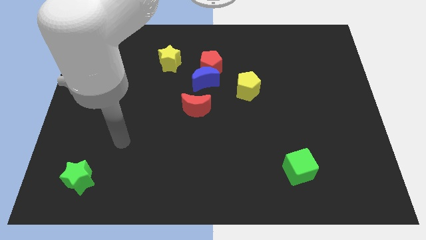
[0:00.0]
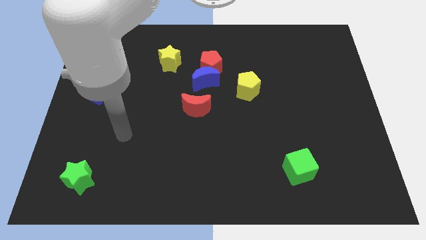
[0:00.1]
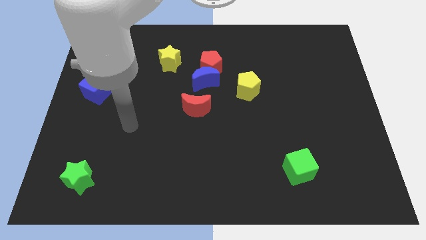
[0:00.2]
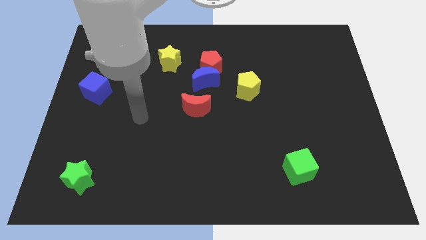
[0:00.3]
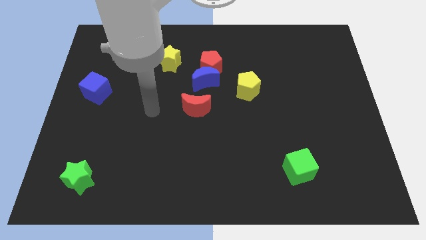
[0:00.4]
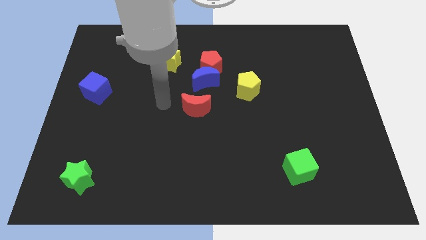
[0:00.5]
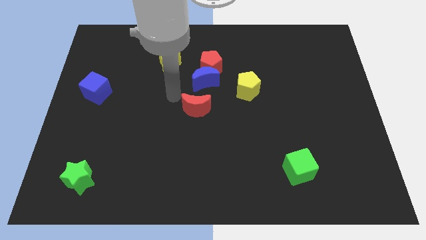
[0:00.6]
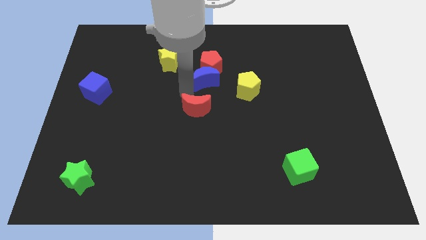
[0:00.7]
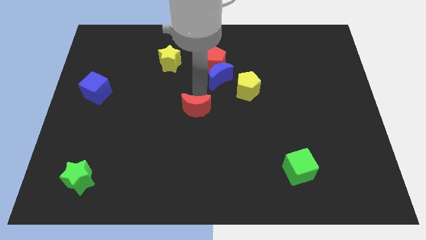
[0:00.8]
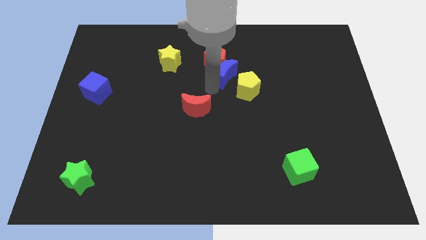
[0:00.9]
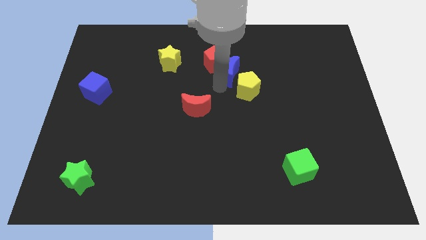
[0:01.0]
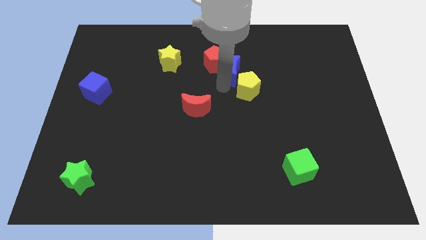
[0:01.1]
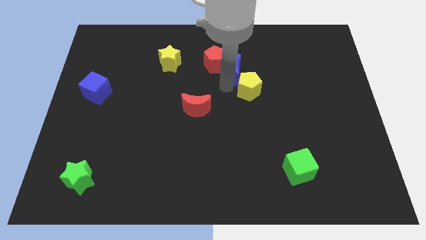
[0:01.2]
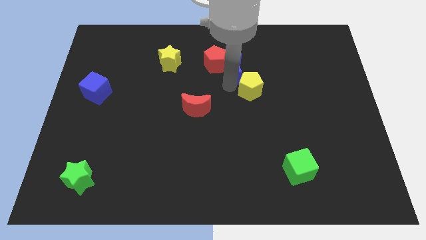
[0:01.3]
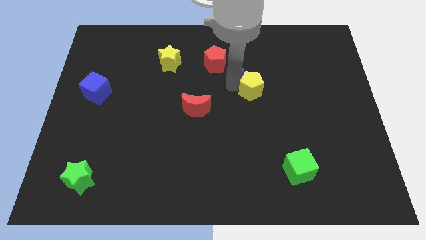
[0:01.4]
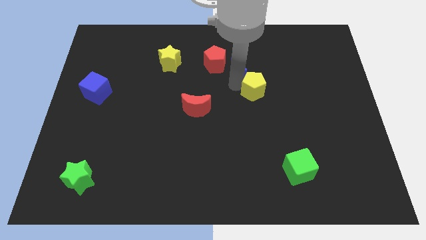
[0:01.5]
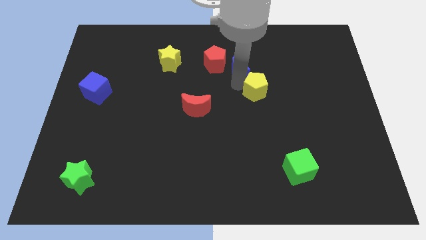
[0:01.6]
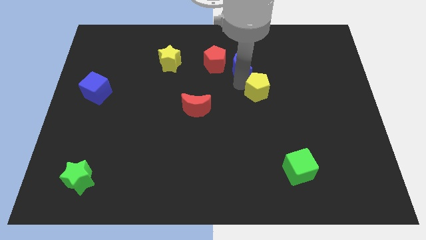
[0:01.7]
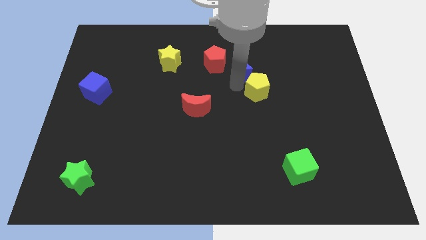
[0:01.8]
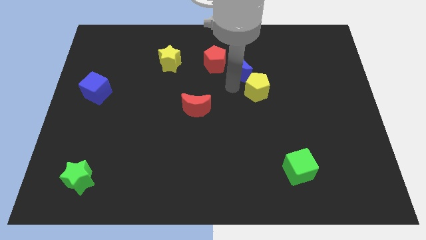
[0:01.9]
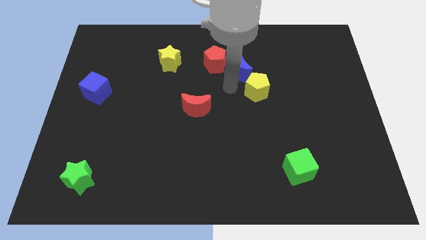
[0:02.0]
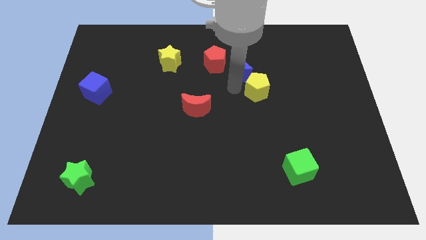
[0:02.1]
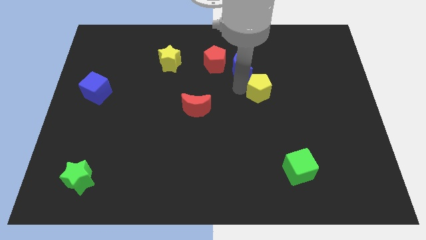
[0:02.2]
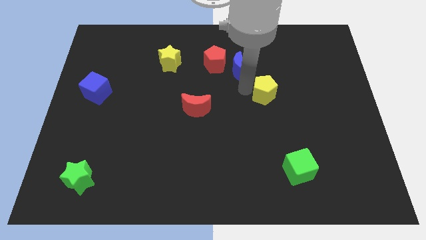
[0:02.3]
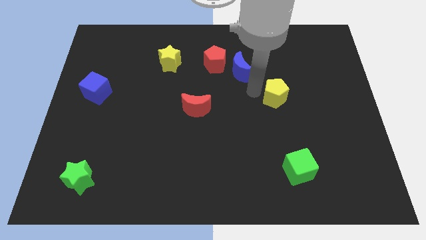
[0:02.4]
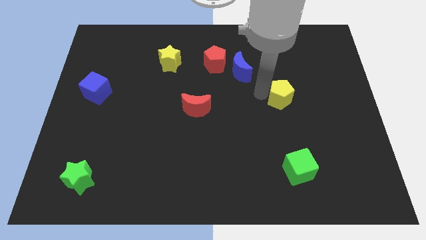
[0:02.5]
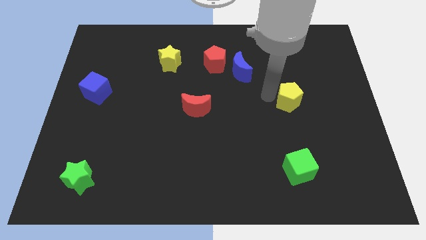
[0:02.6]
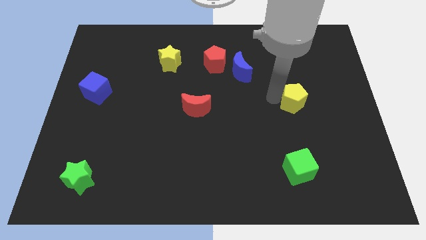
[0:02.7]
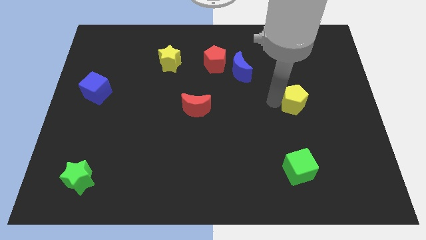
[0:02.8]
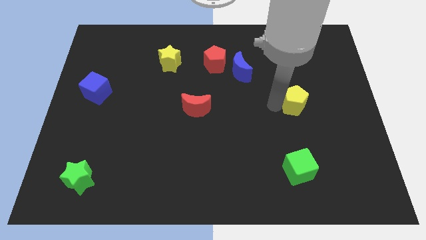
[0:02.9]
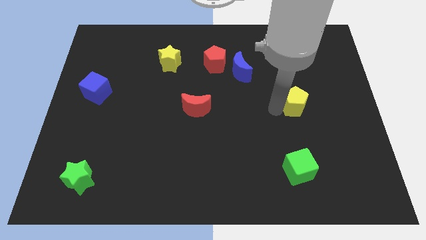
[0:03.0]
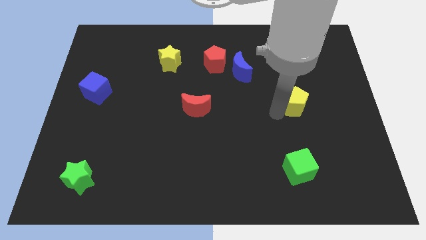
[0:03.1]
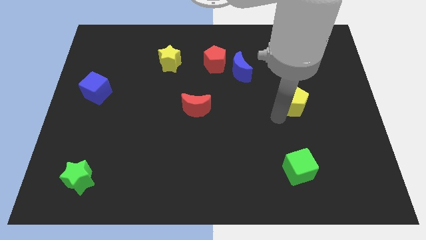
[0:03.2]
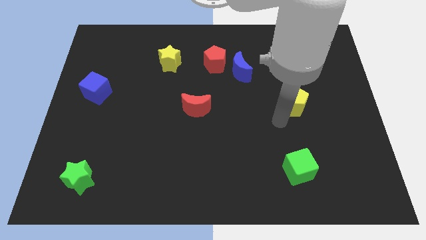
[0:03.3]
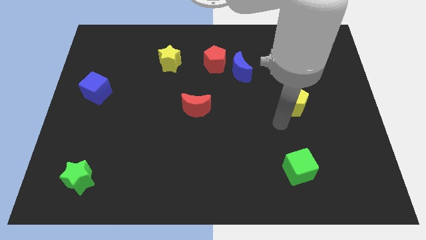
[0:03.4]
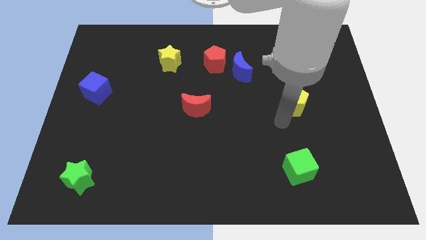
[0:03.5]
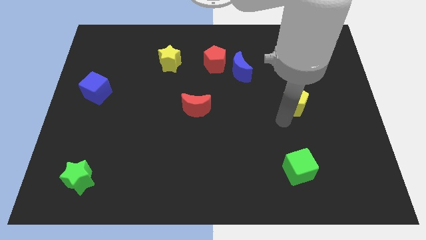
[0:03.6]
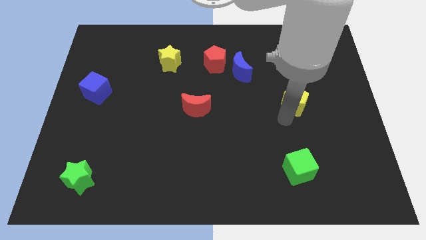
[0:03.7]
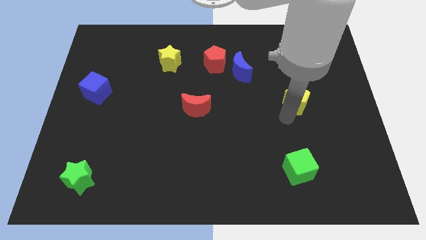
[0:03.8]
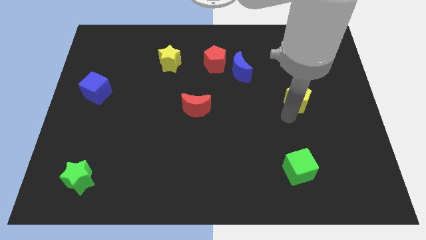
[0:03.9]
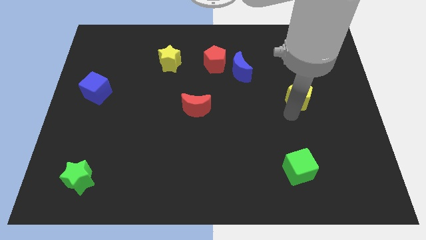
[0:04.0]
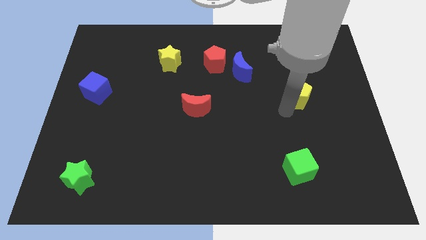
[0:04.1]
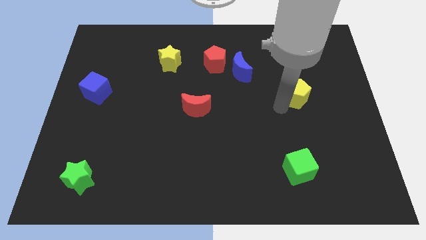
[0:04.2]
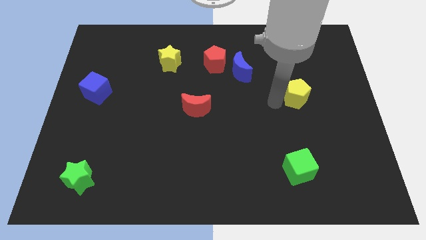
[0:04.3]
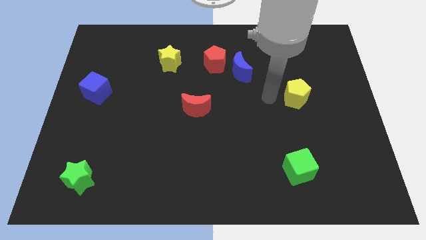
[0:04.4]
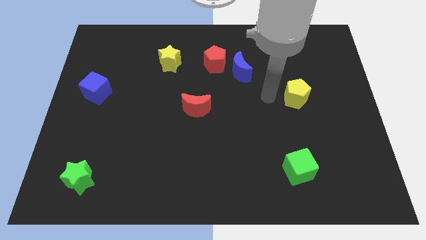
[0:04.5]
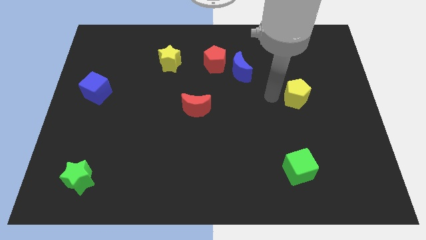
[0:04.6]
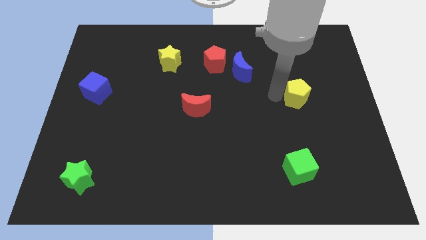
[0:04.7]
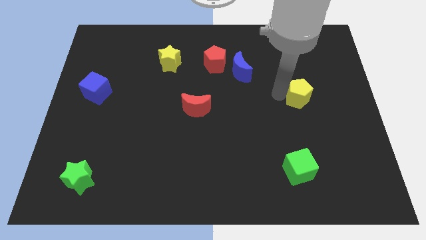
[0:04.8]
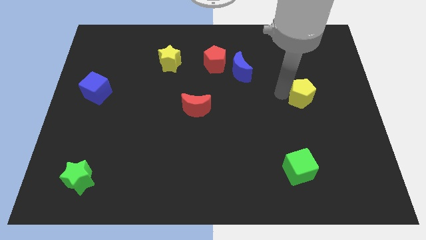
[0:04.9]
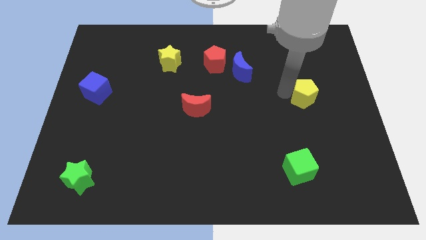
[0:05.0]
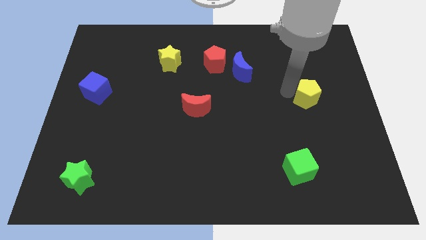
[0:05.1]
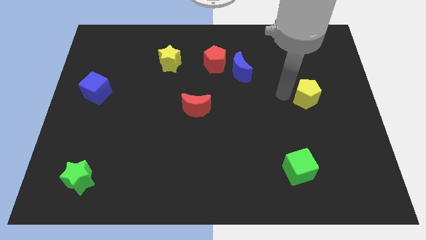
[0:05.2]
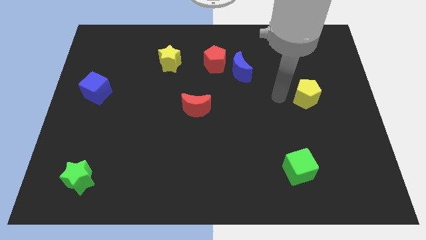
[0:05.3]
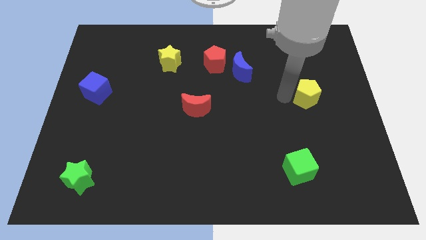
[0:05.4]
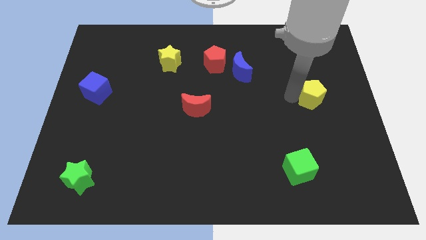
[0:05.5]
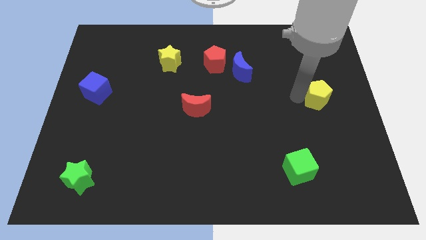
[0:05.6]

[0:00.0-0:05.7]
put the yellow pentagon to the right side of the board

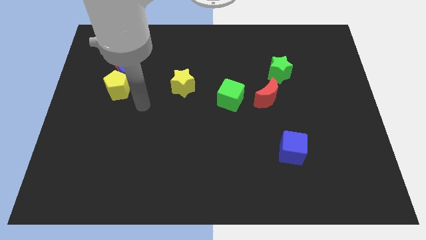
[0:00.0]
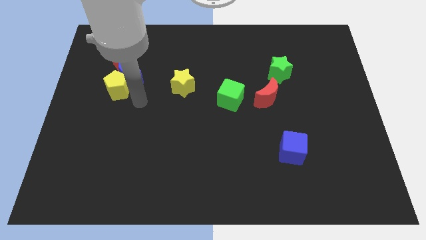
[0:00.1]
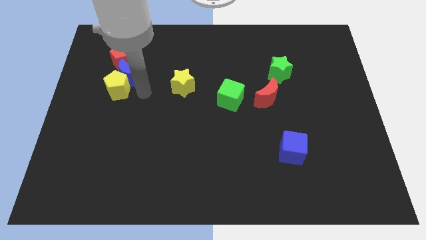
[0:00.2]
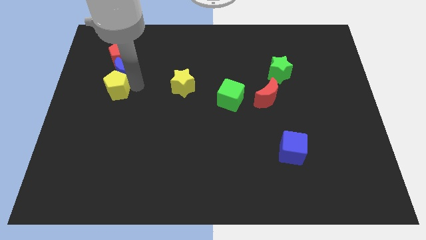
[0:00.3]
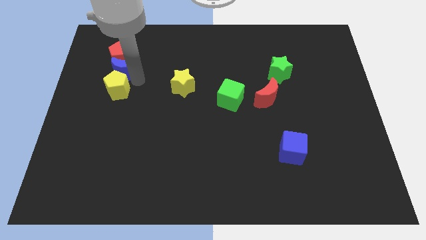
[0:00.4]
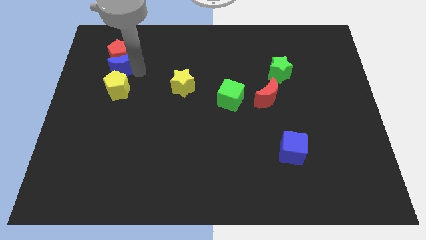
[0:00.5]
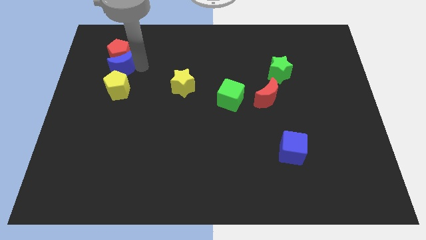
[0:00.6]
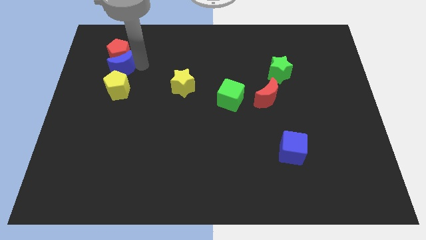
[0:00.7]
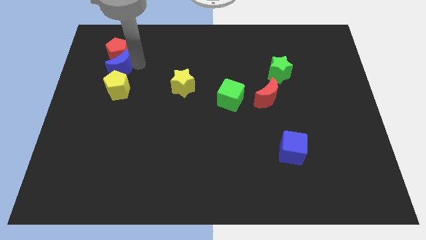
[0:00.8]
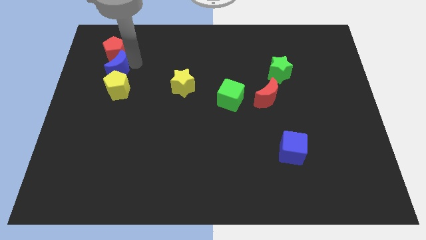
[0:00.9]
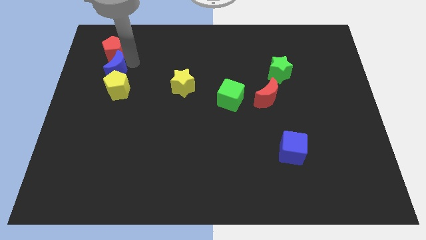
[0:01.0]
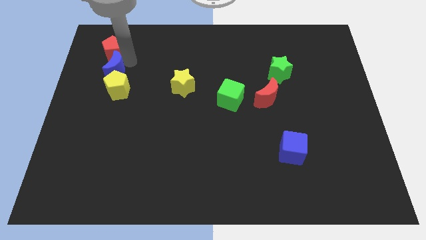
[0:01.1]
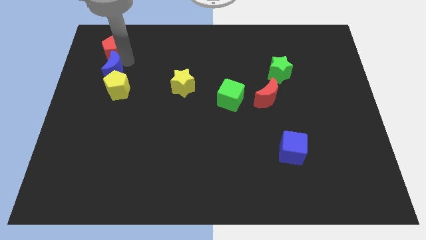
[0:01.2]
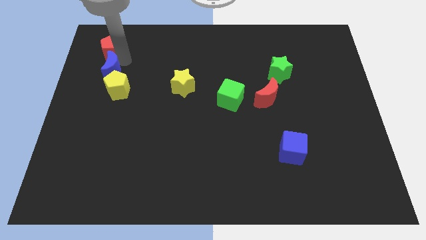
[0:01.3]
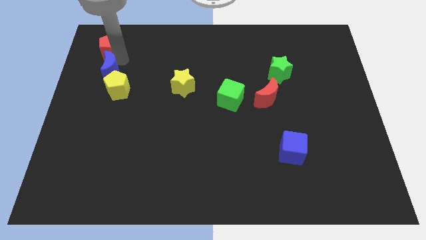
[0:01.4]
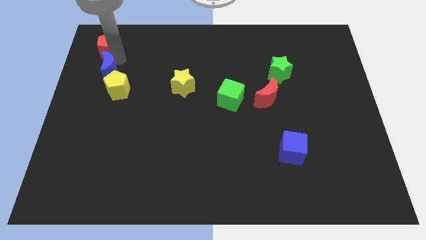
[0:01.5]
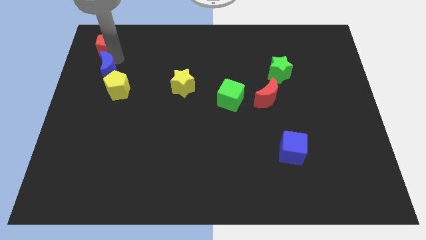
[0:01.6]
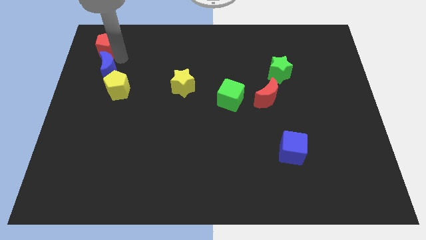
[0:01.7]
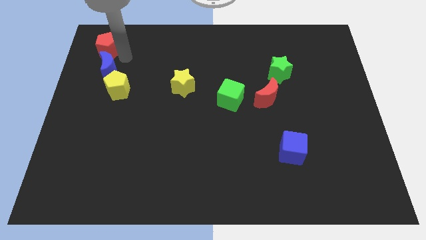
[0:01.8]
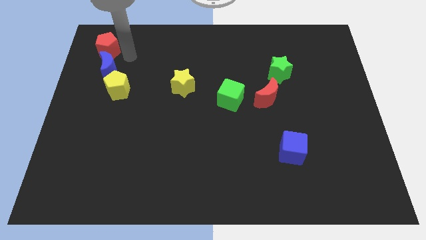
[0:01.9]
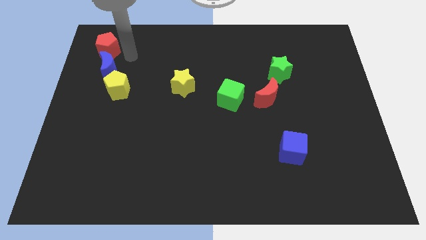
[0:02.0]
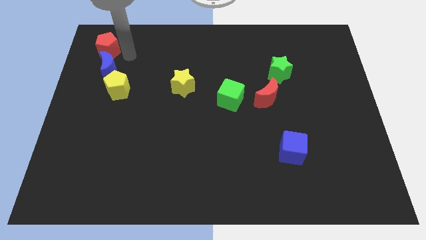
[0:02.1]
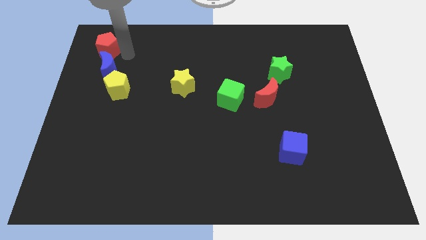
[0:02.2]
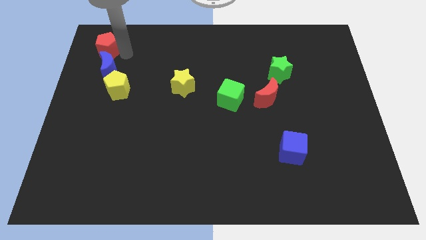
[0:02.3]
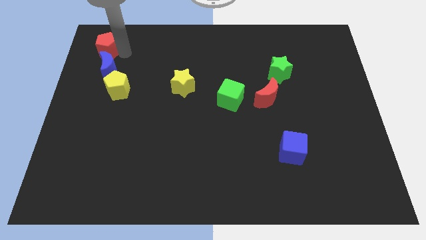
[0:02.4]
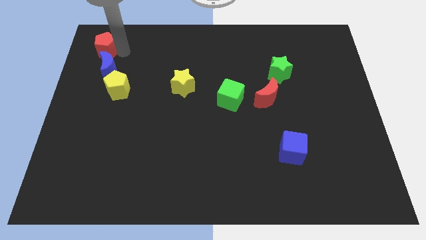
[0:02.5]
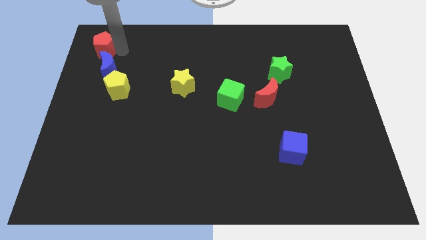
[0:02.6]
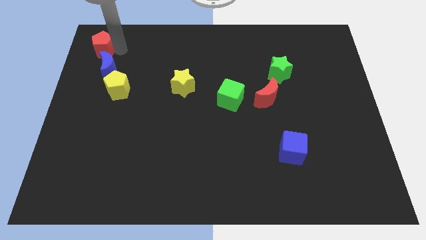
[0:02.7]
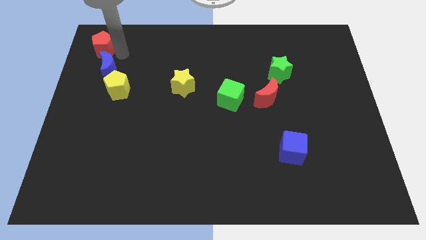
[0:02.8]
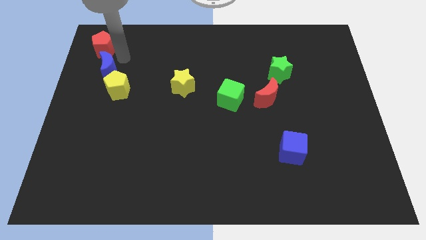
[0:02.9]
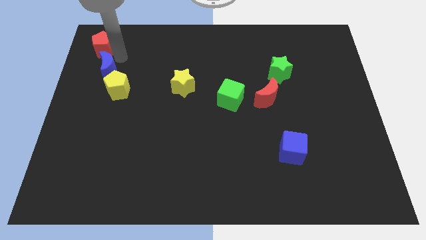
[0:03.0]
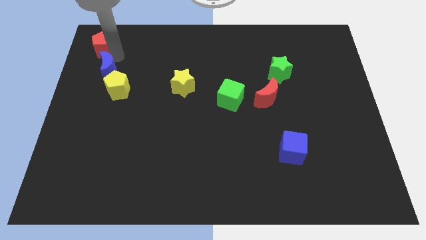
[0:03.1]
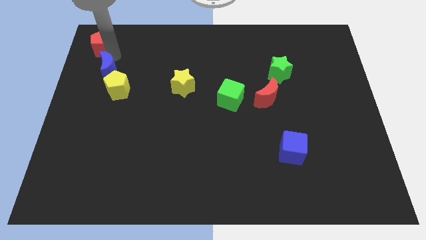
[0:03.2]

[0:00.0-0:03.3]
put the red pentagon to the top left
